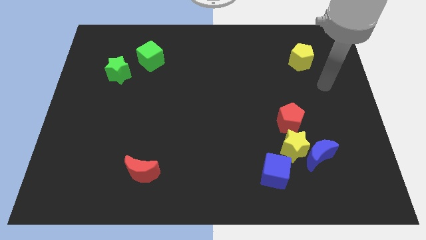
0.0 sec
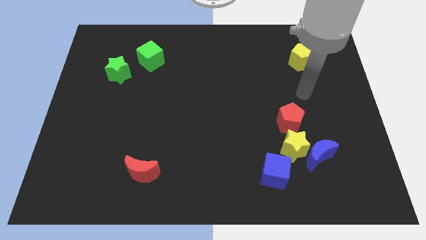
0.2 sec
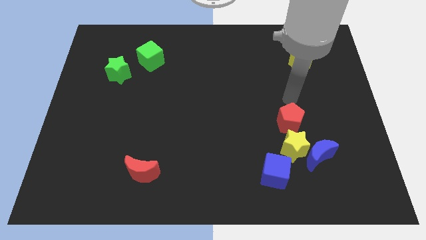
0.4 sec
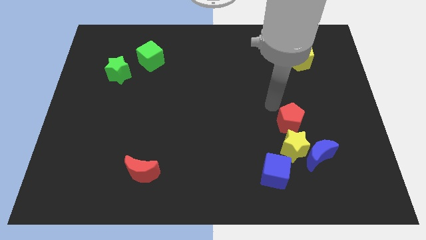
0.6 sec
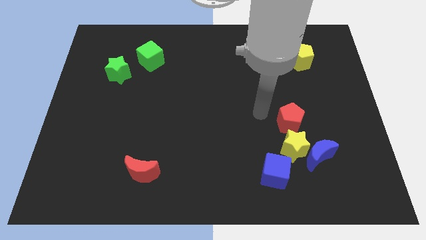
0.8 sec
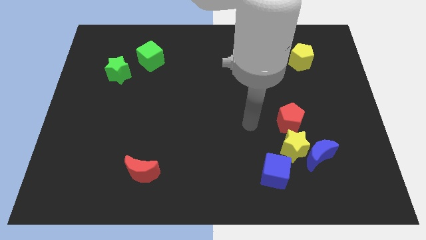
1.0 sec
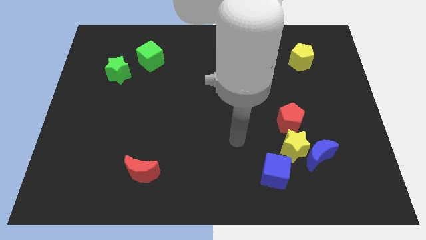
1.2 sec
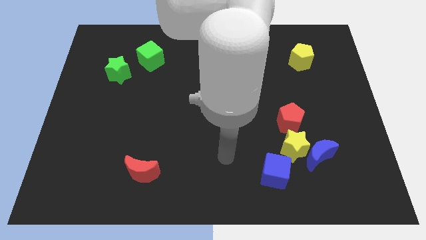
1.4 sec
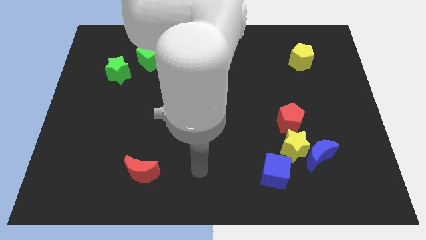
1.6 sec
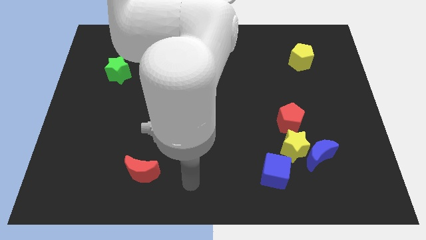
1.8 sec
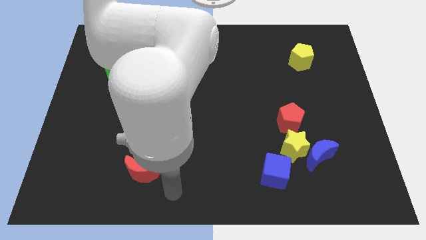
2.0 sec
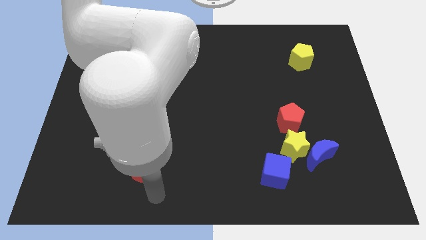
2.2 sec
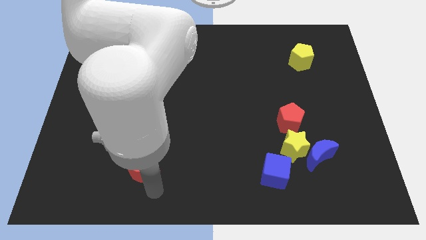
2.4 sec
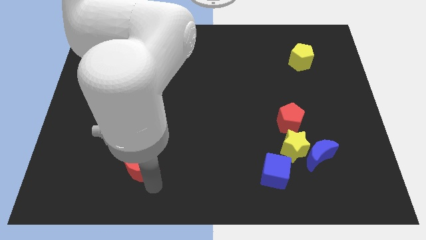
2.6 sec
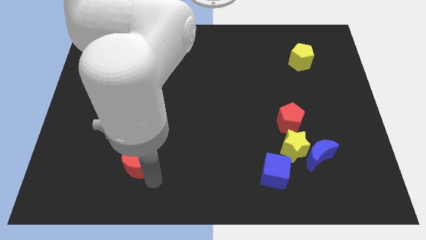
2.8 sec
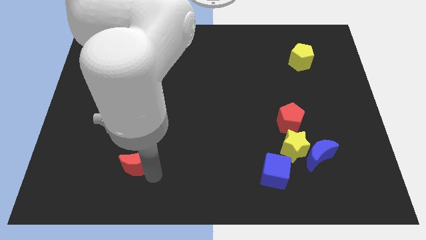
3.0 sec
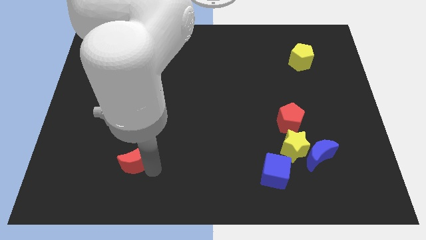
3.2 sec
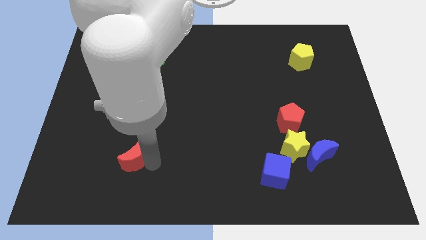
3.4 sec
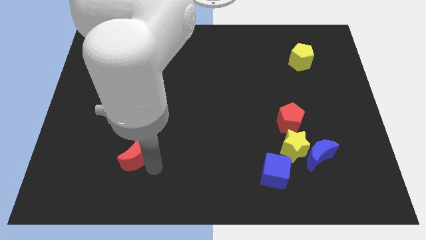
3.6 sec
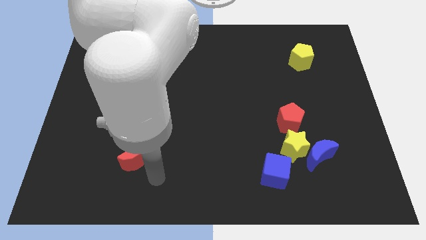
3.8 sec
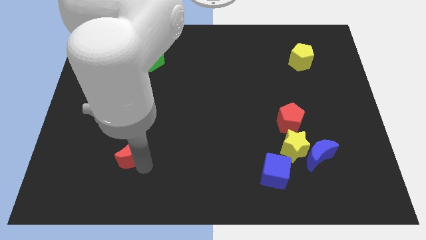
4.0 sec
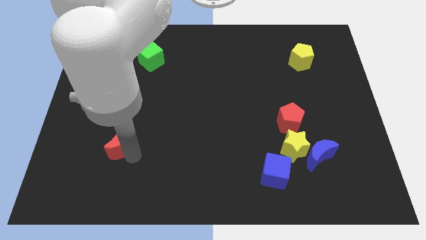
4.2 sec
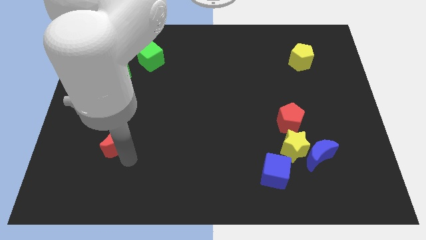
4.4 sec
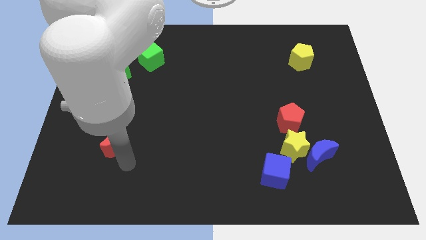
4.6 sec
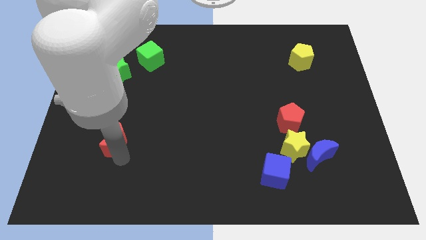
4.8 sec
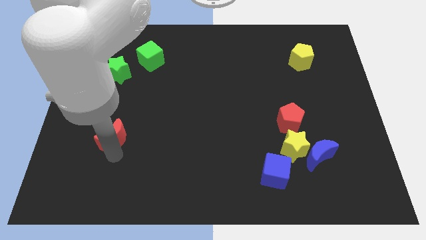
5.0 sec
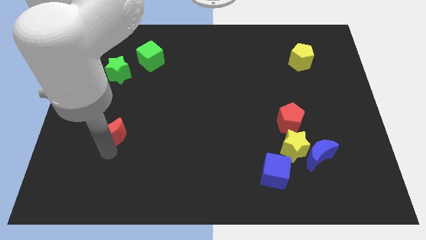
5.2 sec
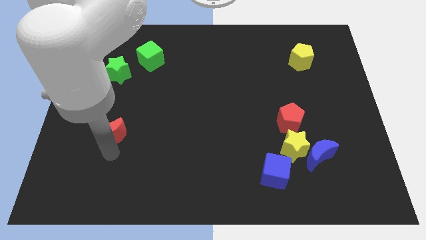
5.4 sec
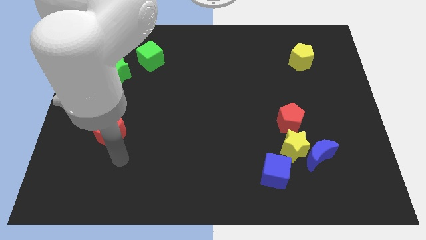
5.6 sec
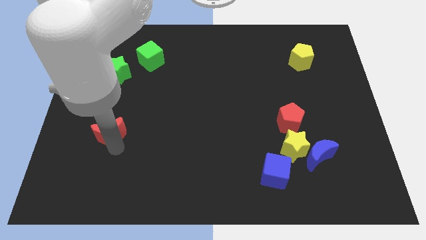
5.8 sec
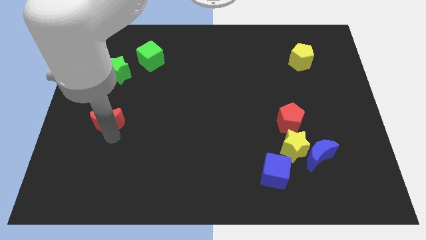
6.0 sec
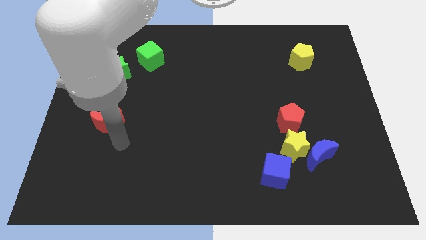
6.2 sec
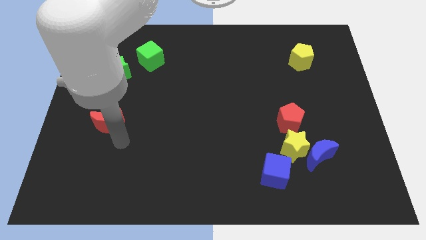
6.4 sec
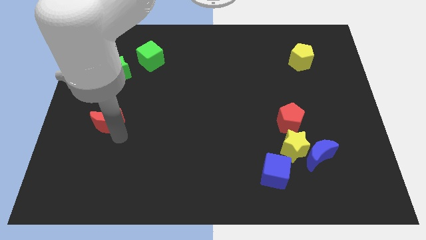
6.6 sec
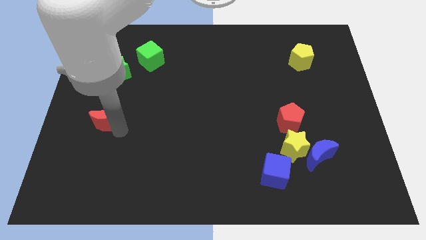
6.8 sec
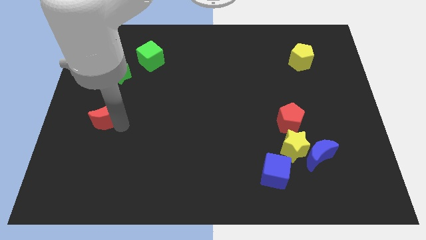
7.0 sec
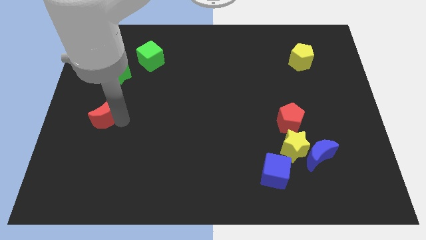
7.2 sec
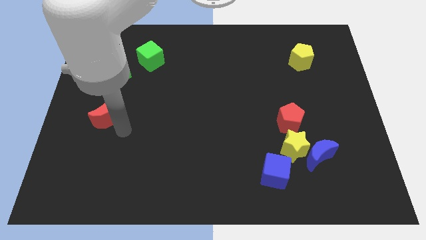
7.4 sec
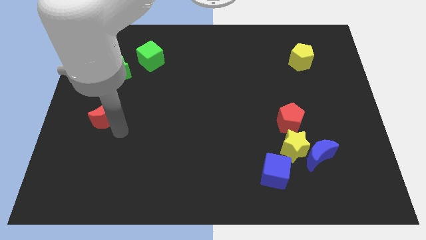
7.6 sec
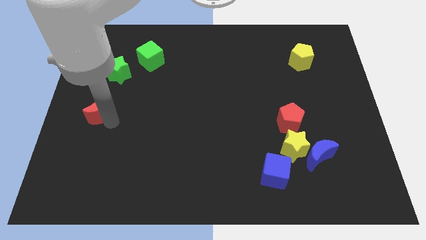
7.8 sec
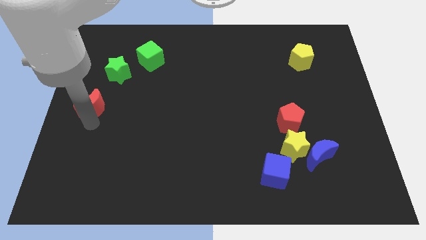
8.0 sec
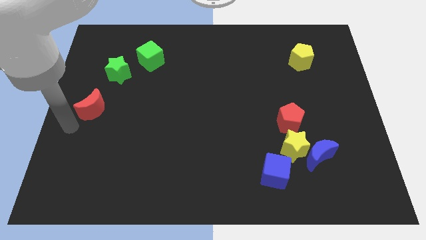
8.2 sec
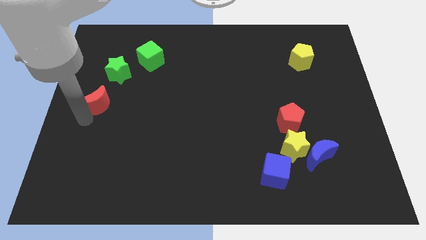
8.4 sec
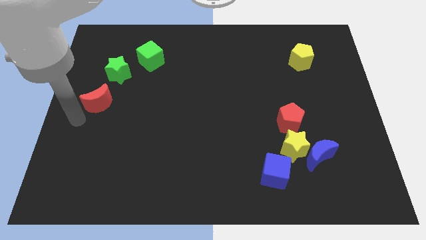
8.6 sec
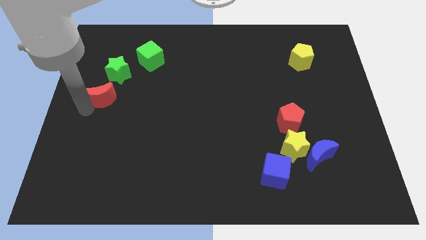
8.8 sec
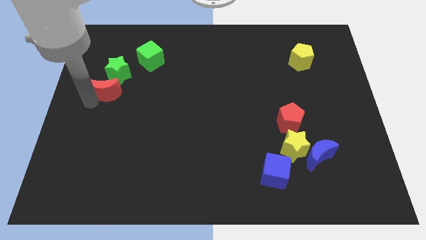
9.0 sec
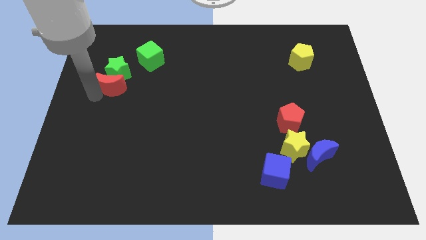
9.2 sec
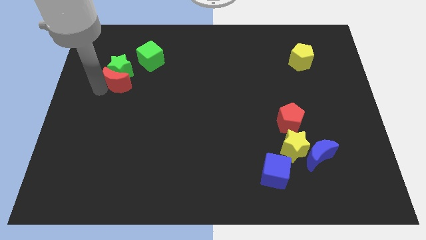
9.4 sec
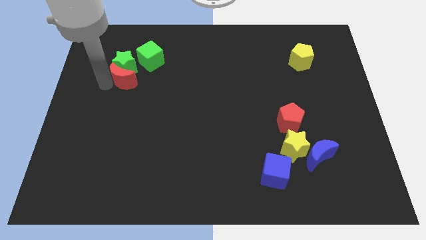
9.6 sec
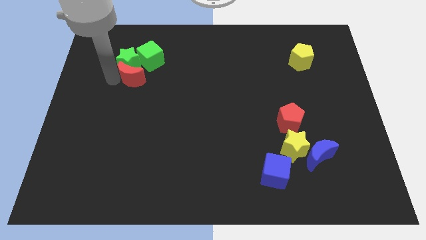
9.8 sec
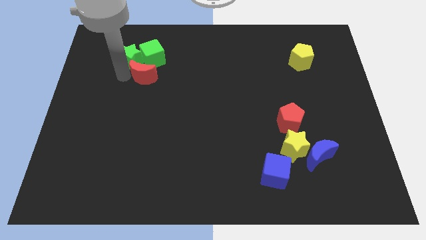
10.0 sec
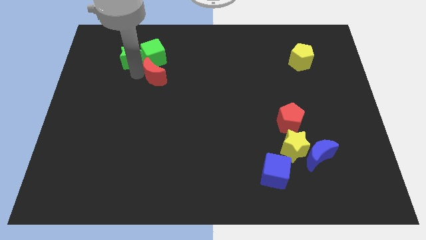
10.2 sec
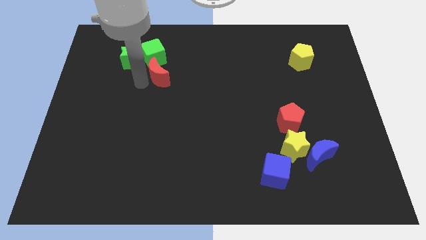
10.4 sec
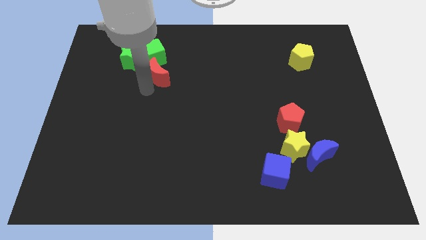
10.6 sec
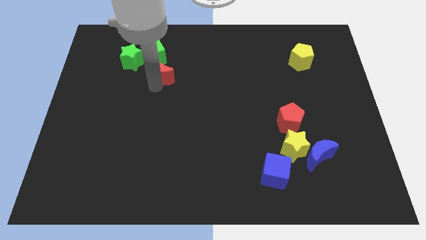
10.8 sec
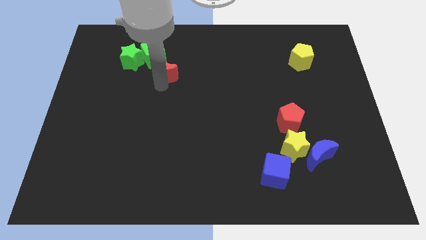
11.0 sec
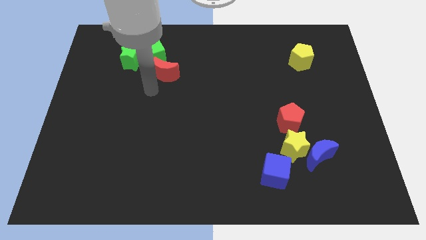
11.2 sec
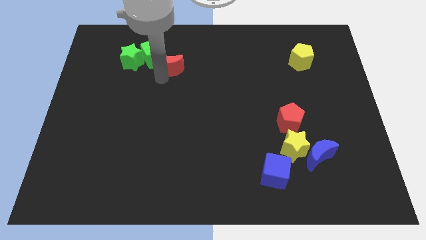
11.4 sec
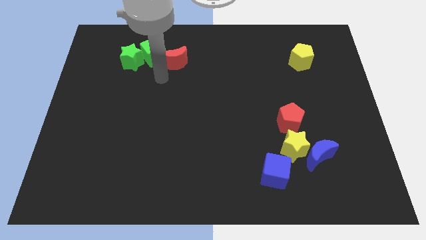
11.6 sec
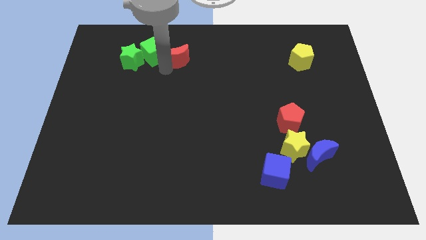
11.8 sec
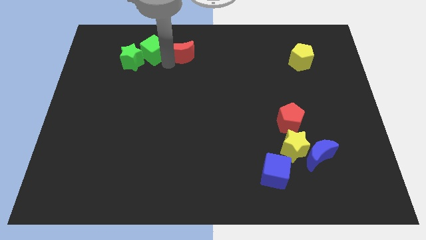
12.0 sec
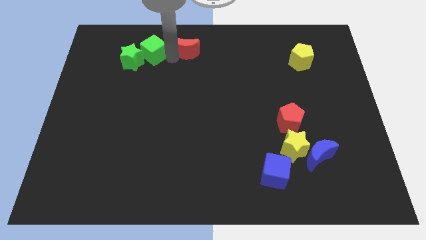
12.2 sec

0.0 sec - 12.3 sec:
push the red moon to the top side

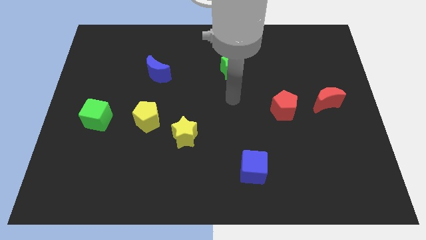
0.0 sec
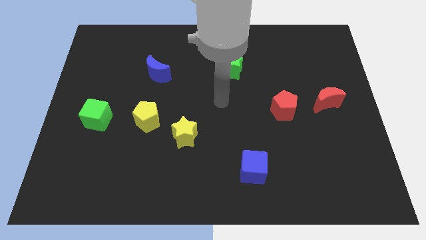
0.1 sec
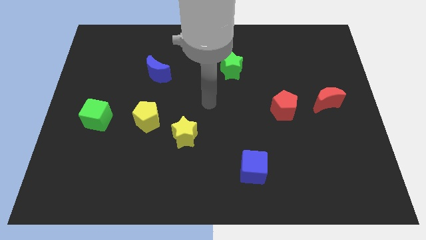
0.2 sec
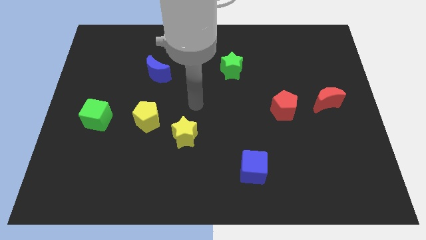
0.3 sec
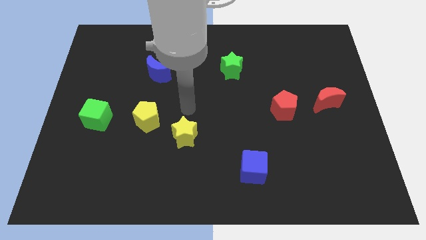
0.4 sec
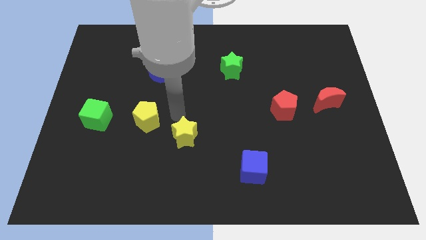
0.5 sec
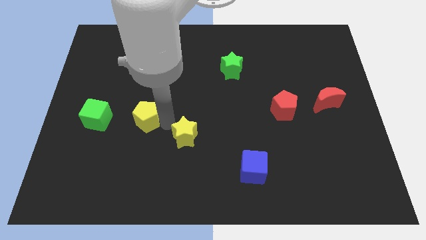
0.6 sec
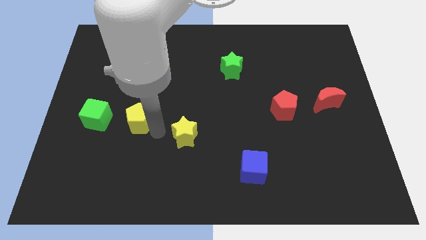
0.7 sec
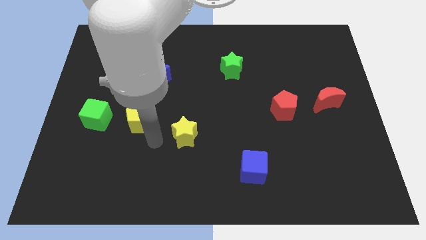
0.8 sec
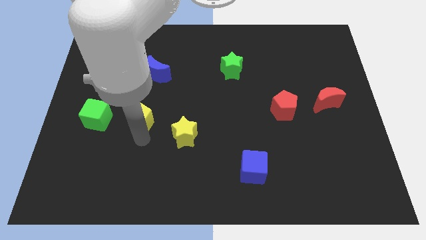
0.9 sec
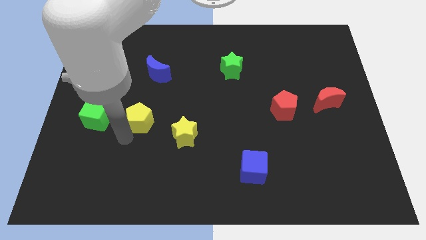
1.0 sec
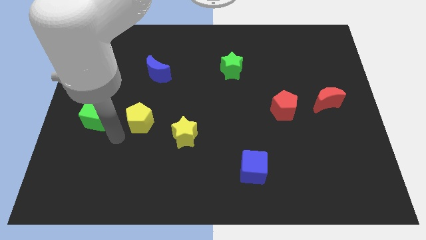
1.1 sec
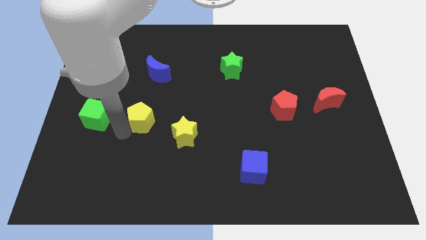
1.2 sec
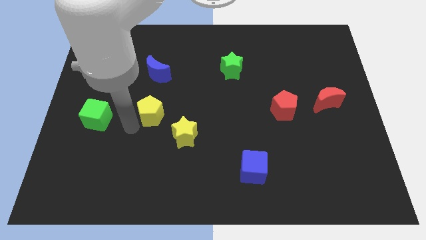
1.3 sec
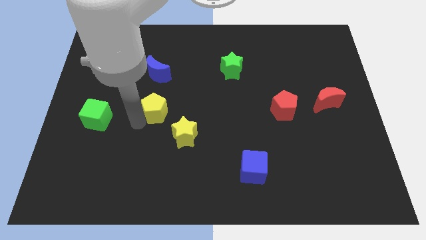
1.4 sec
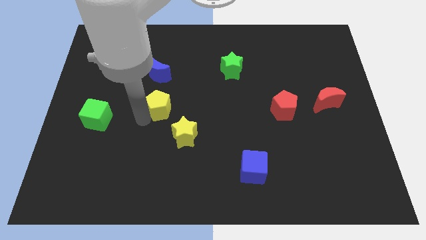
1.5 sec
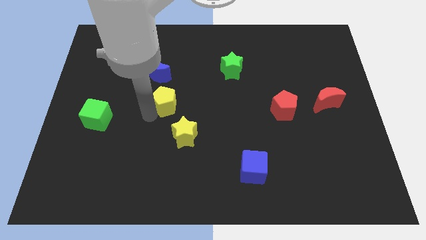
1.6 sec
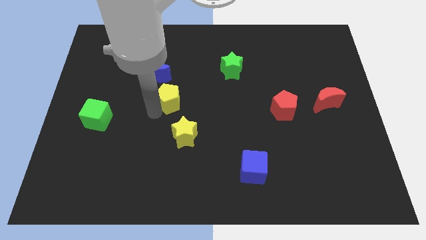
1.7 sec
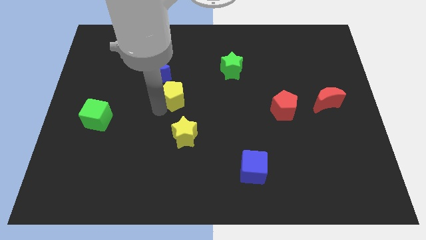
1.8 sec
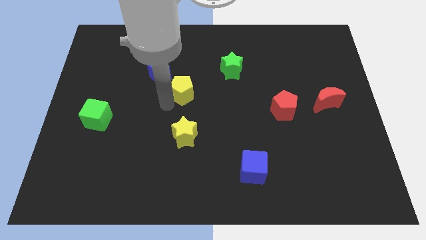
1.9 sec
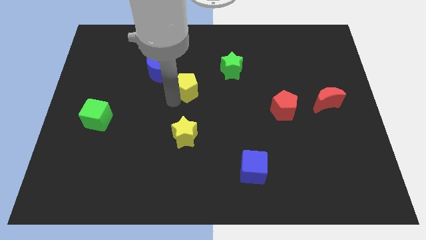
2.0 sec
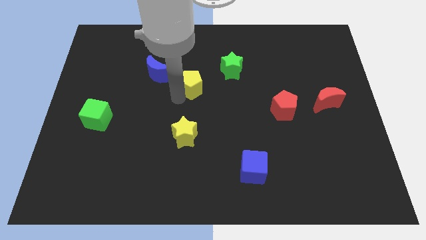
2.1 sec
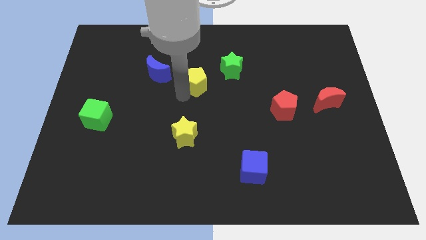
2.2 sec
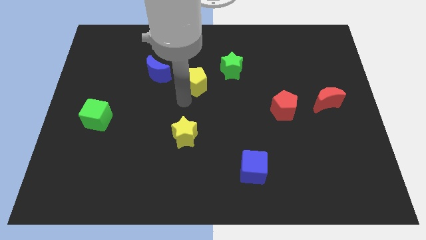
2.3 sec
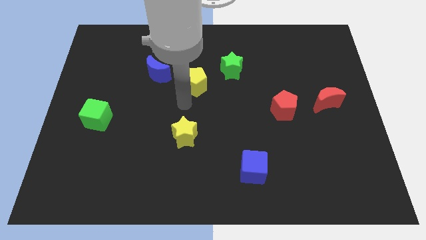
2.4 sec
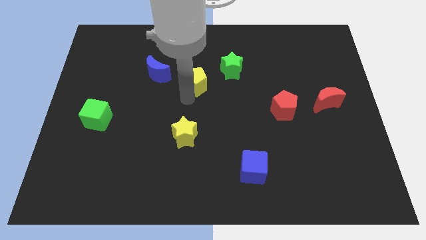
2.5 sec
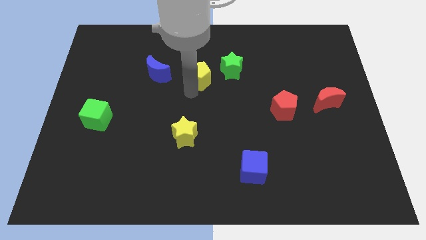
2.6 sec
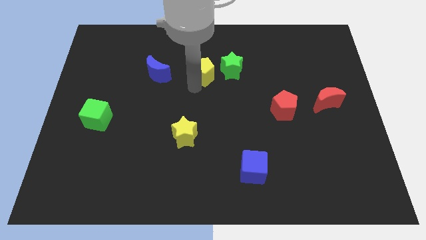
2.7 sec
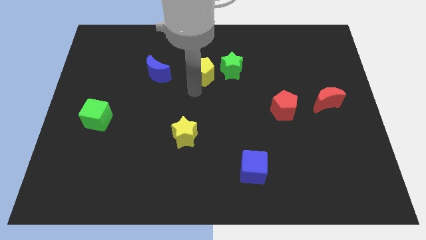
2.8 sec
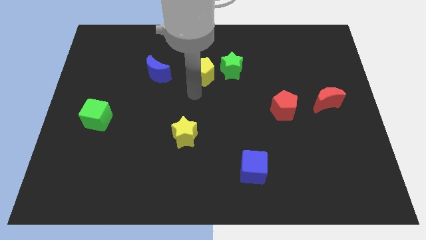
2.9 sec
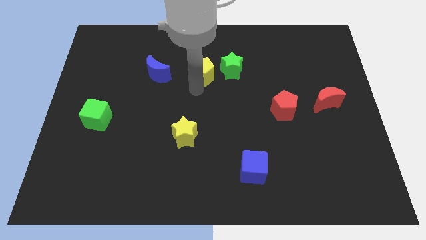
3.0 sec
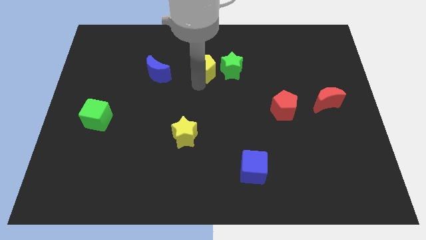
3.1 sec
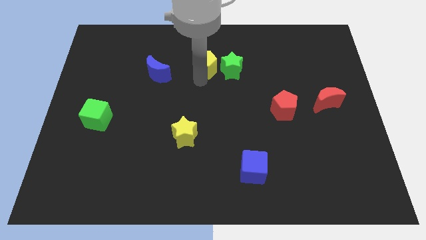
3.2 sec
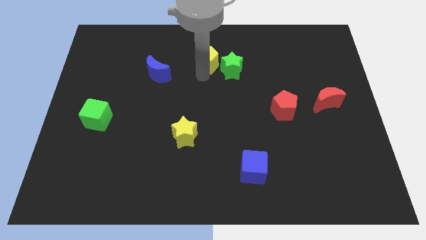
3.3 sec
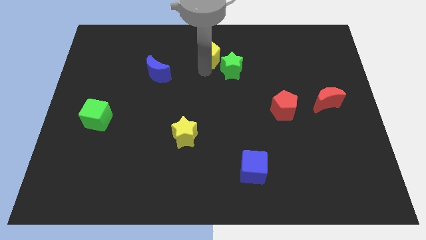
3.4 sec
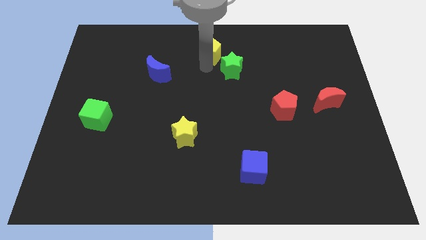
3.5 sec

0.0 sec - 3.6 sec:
put the yellow pentagon to the top
